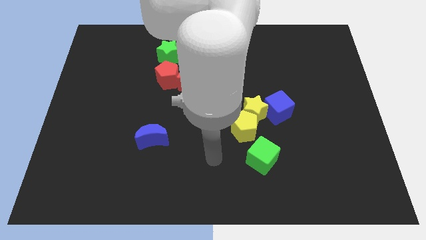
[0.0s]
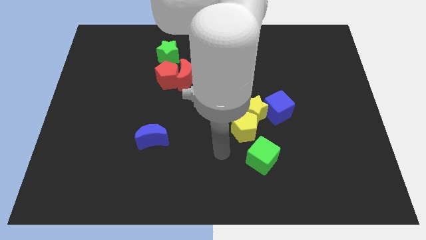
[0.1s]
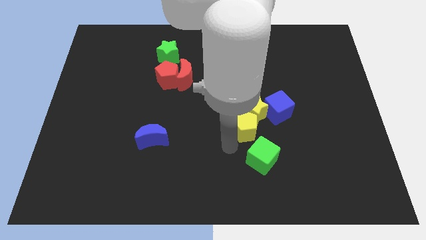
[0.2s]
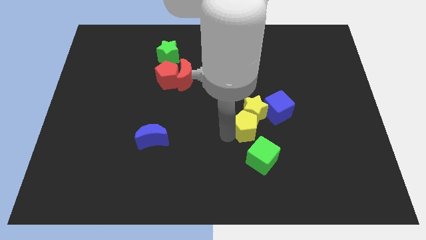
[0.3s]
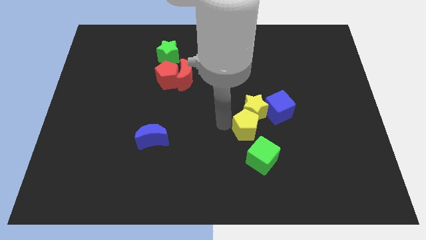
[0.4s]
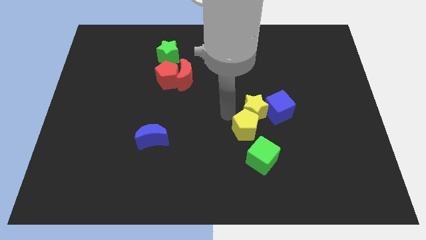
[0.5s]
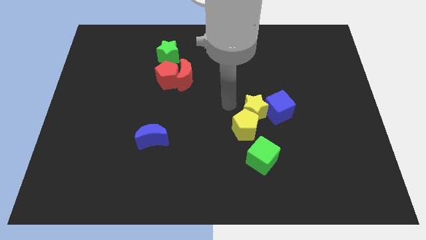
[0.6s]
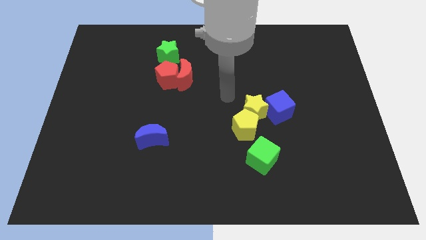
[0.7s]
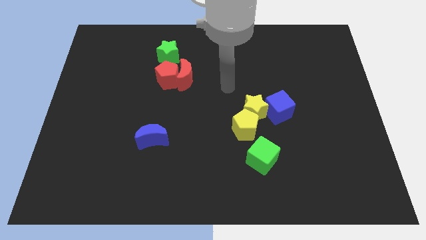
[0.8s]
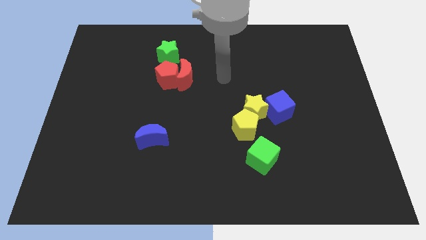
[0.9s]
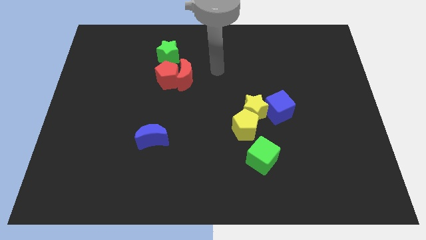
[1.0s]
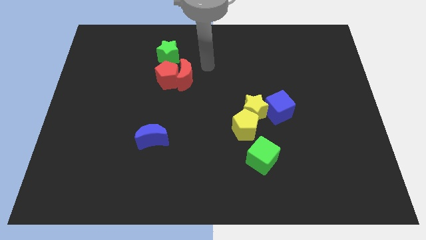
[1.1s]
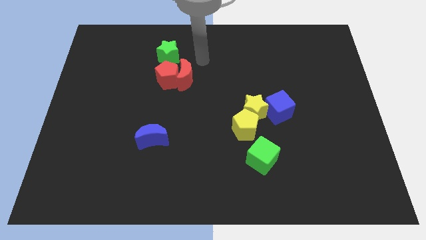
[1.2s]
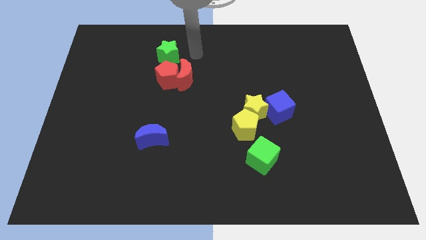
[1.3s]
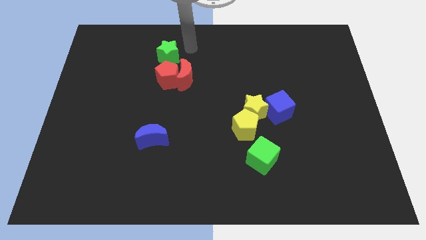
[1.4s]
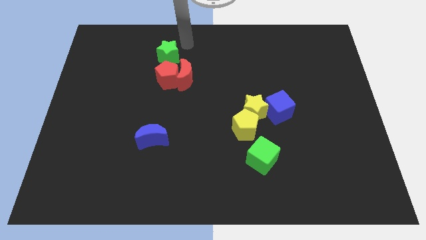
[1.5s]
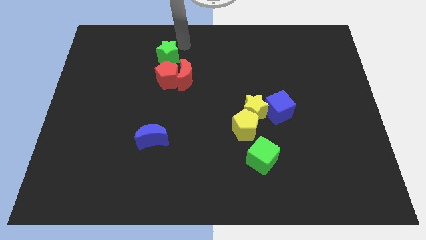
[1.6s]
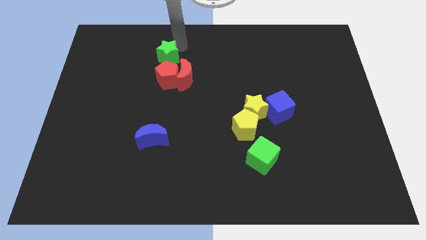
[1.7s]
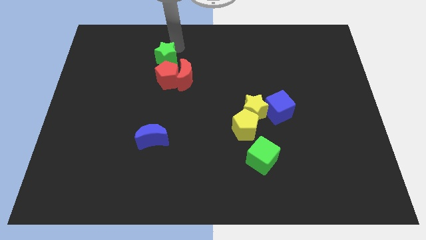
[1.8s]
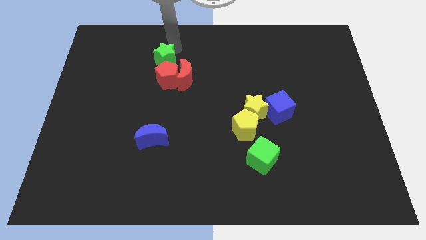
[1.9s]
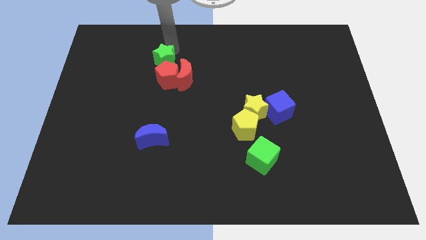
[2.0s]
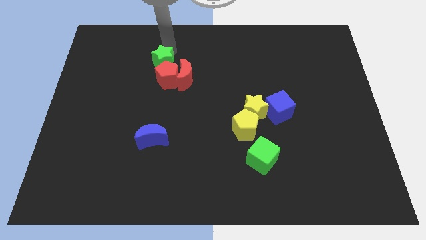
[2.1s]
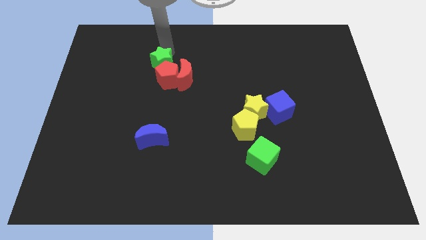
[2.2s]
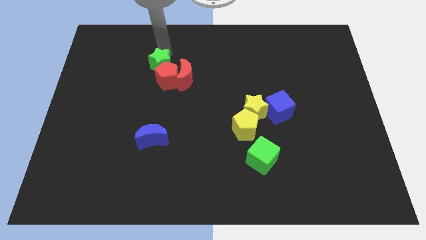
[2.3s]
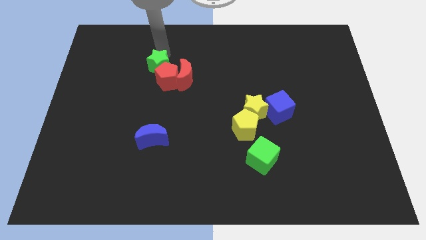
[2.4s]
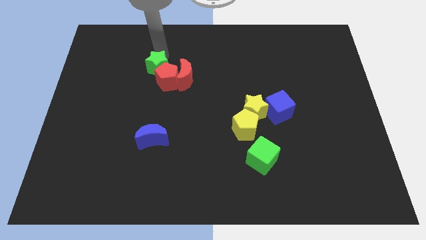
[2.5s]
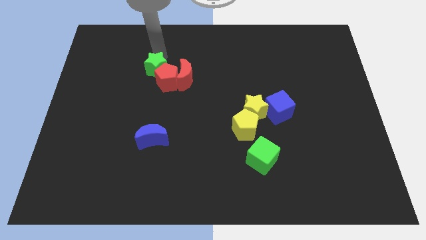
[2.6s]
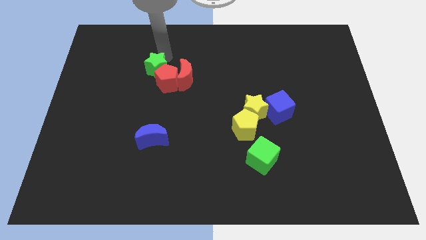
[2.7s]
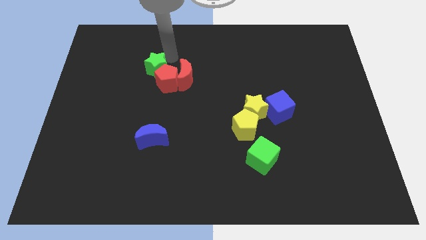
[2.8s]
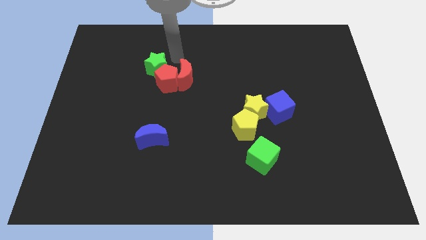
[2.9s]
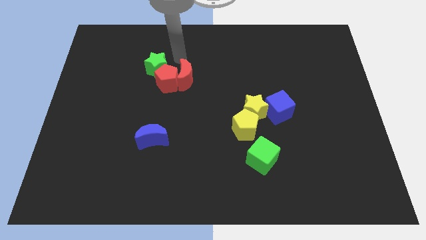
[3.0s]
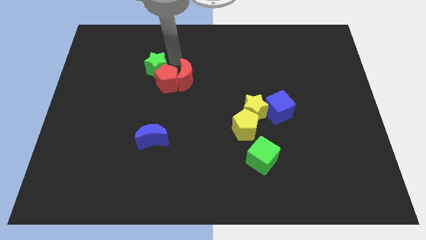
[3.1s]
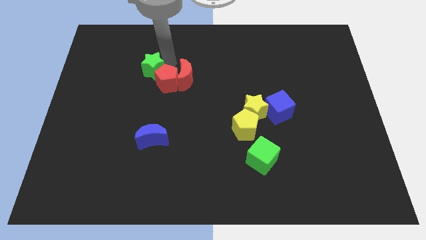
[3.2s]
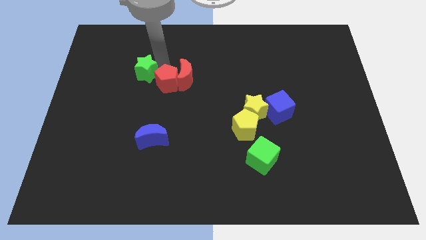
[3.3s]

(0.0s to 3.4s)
slightly move the green star downwards and to the left

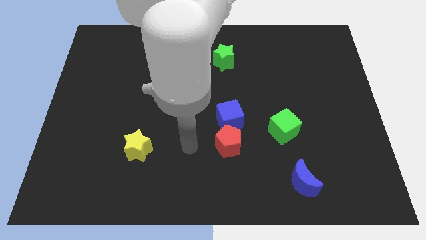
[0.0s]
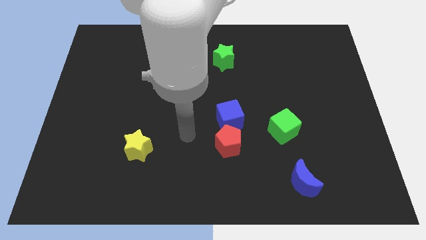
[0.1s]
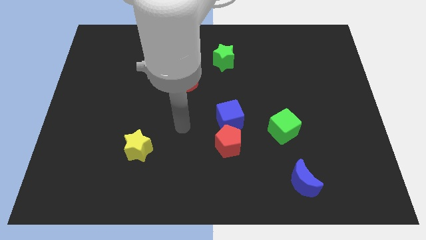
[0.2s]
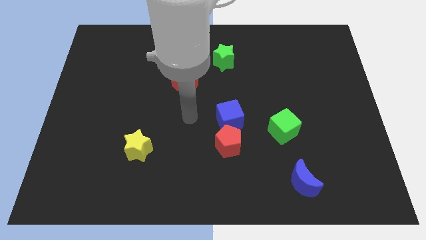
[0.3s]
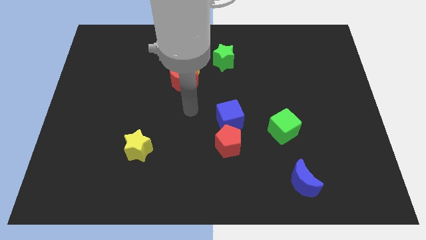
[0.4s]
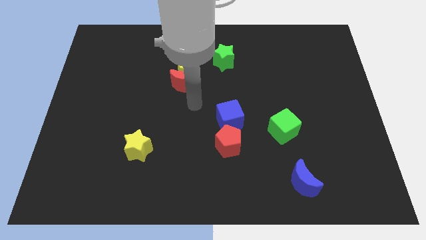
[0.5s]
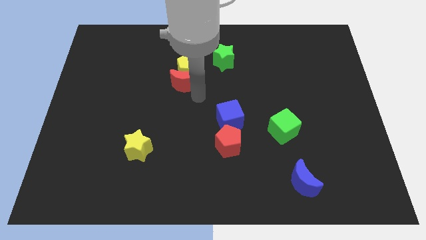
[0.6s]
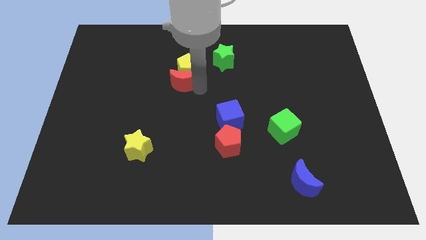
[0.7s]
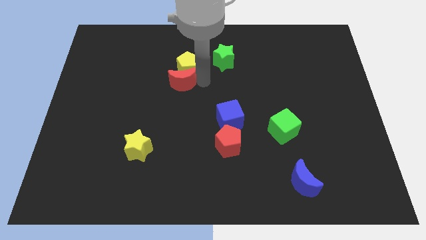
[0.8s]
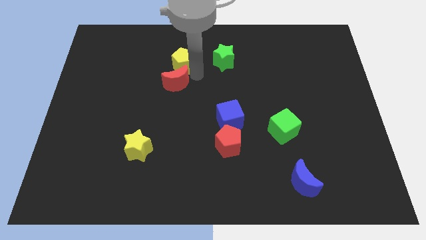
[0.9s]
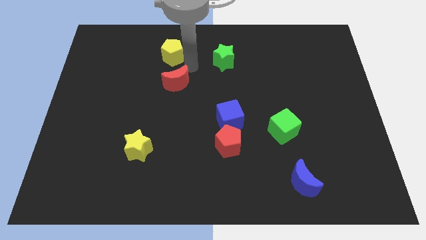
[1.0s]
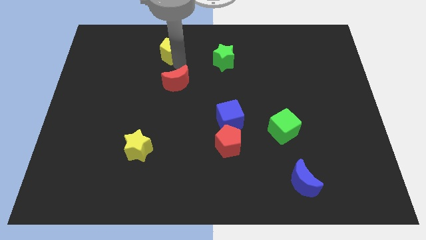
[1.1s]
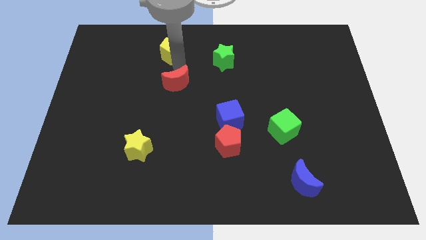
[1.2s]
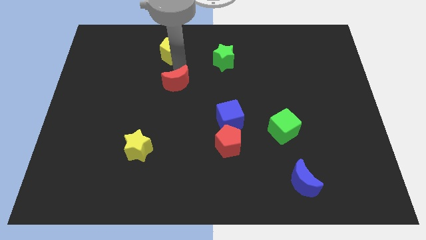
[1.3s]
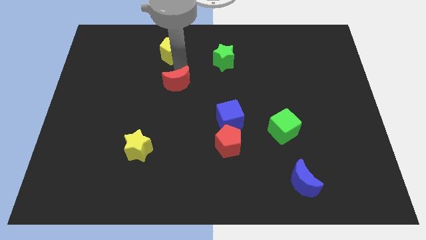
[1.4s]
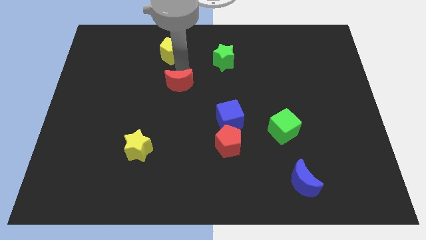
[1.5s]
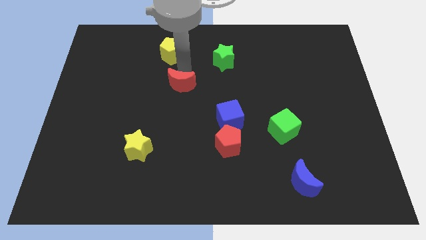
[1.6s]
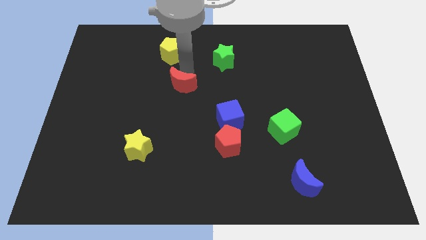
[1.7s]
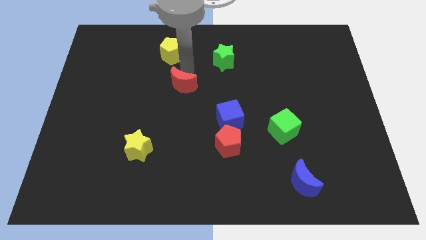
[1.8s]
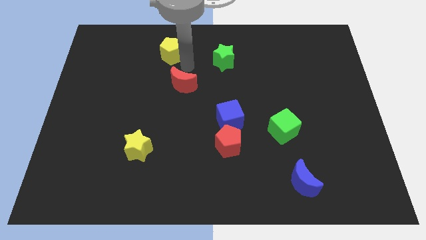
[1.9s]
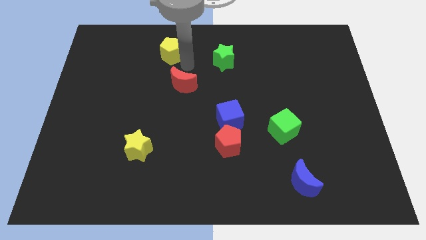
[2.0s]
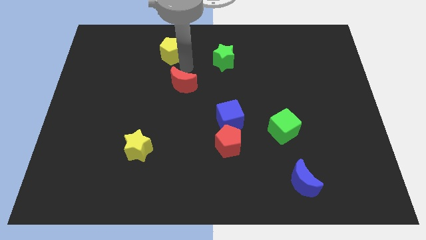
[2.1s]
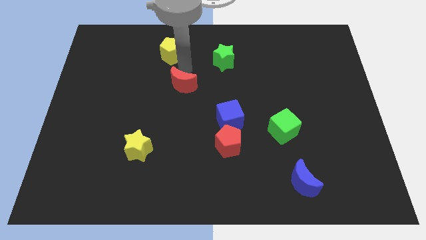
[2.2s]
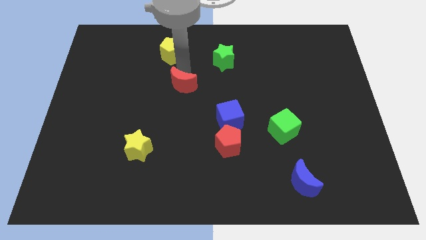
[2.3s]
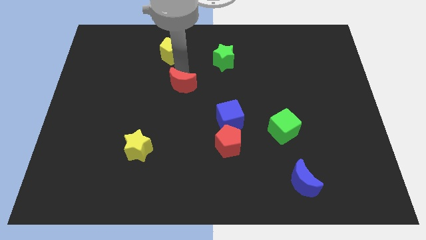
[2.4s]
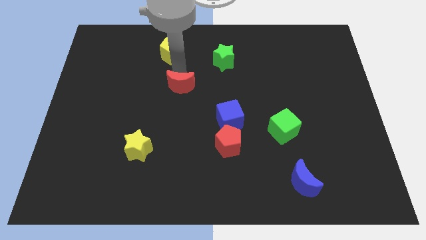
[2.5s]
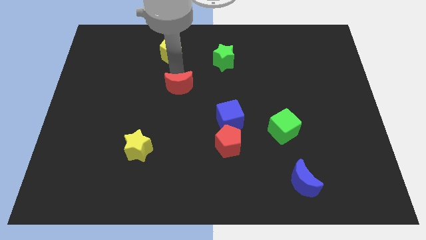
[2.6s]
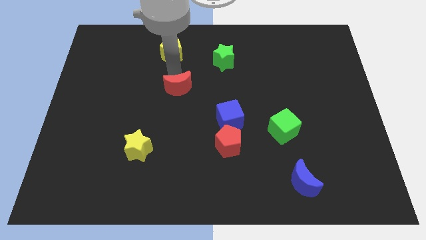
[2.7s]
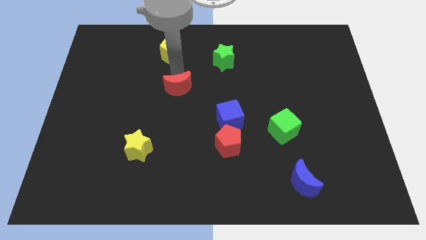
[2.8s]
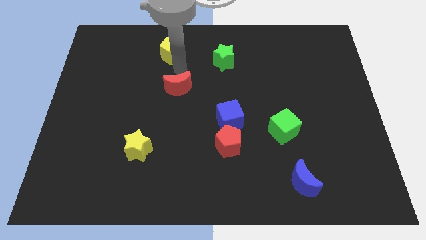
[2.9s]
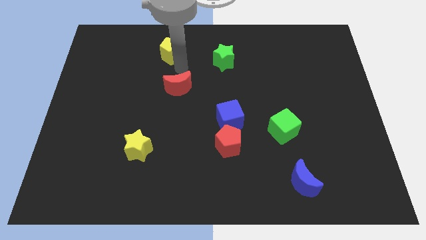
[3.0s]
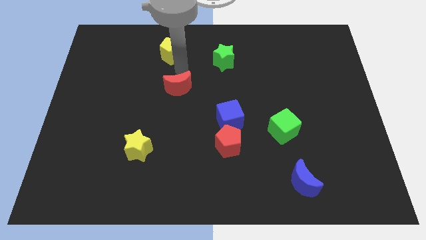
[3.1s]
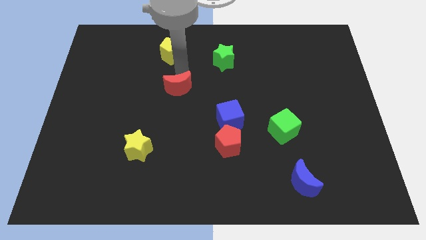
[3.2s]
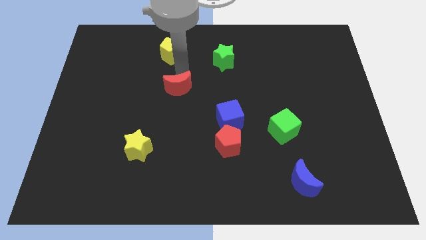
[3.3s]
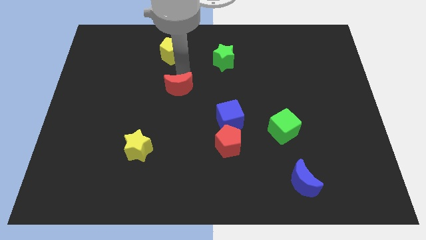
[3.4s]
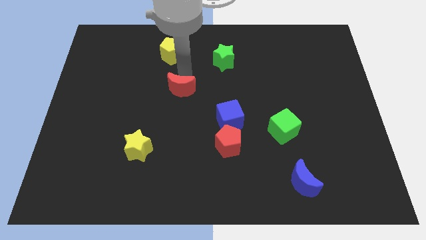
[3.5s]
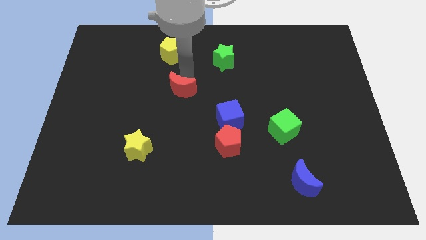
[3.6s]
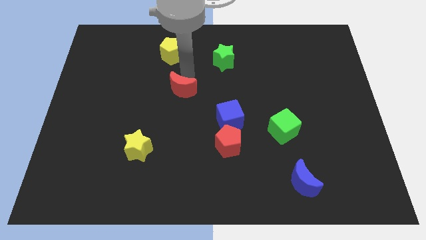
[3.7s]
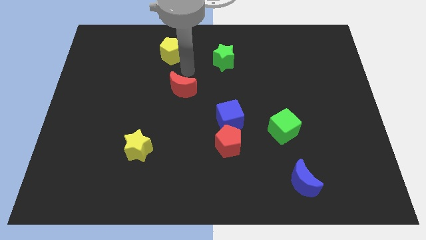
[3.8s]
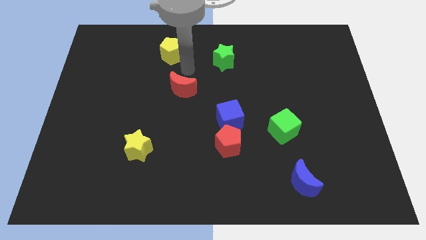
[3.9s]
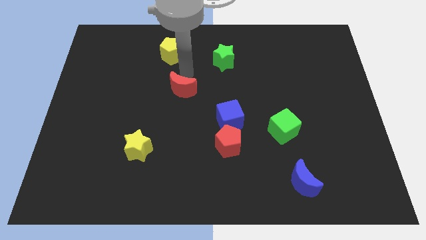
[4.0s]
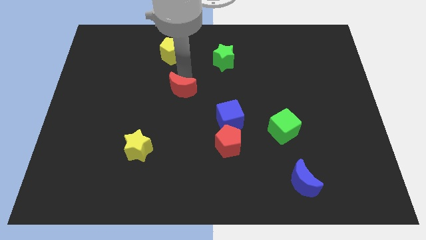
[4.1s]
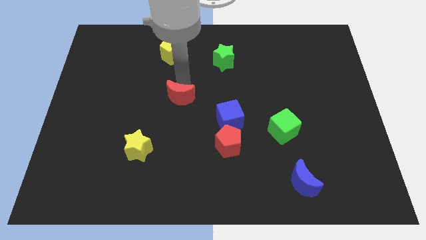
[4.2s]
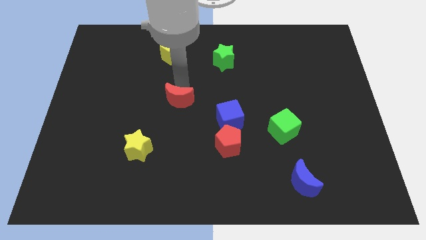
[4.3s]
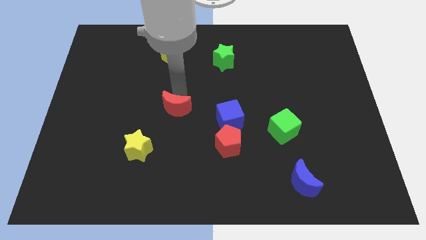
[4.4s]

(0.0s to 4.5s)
push the red moon downwards somewhat

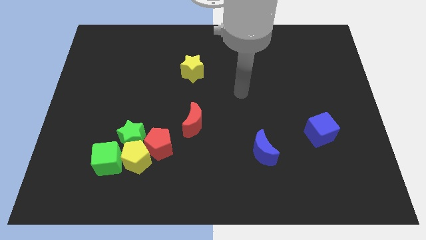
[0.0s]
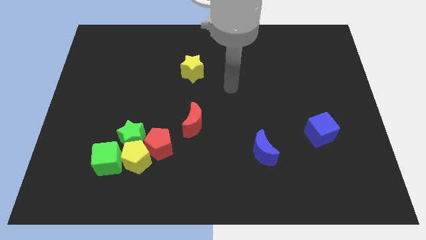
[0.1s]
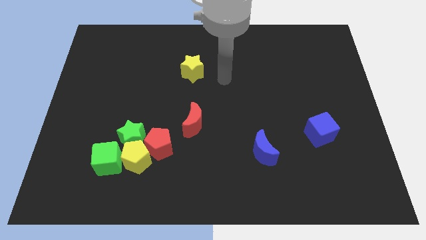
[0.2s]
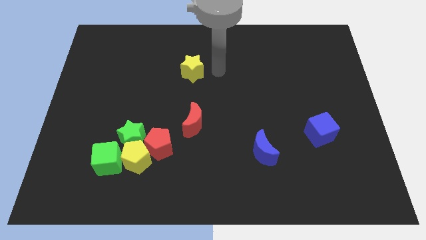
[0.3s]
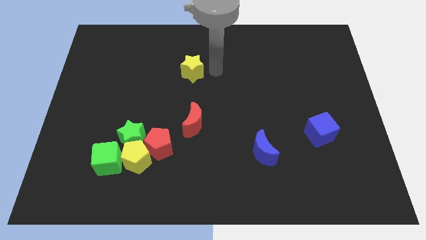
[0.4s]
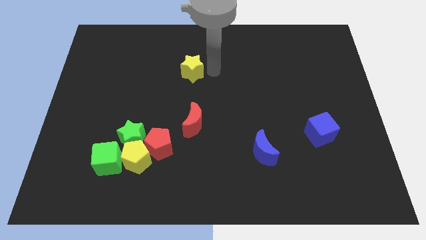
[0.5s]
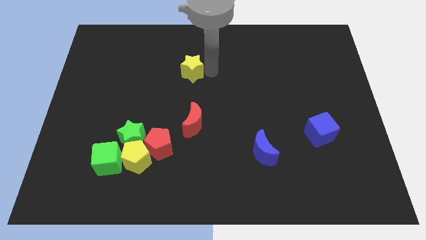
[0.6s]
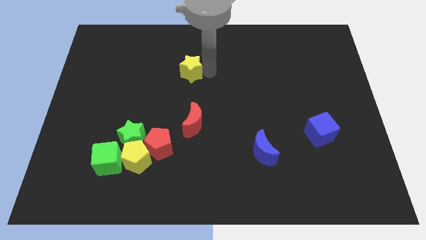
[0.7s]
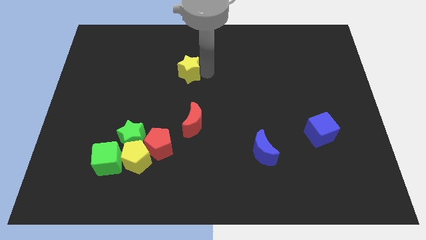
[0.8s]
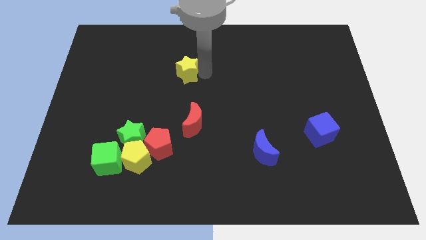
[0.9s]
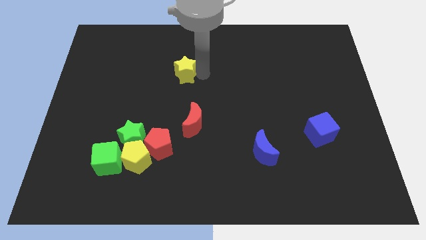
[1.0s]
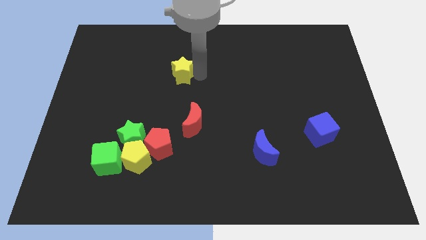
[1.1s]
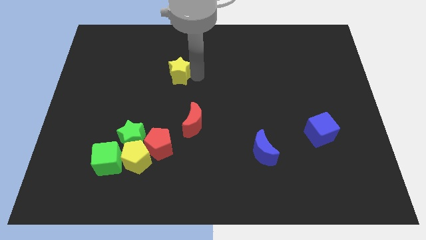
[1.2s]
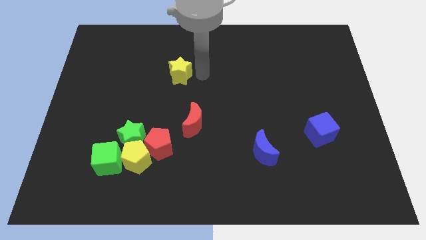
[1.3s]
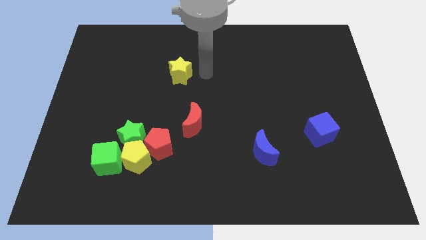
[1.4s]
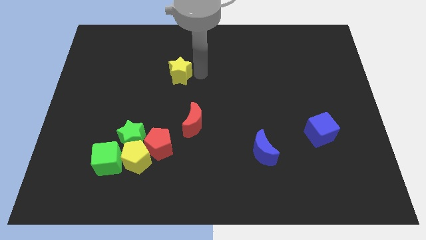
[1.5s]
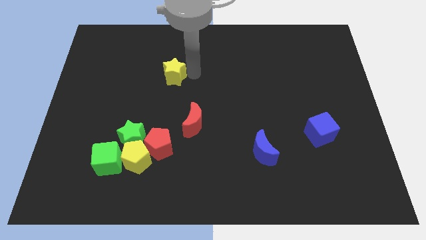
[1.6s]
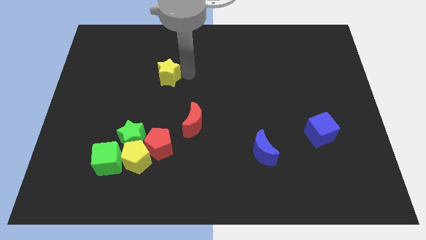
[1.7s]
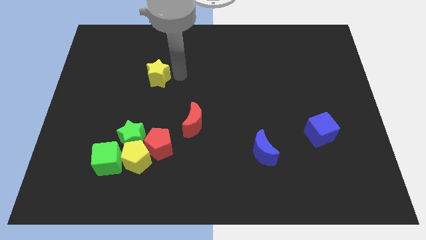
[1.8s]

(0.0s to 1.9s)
slightly slide the yellow star left
